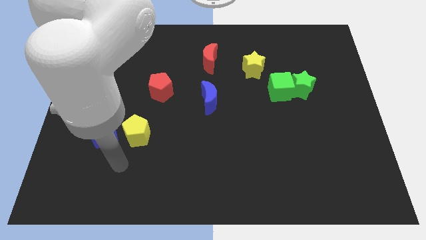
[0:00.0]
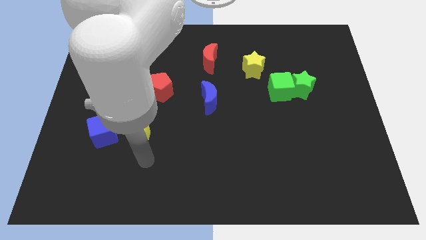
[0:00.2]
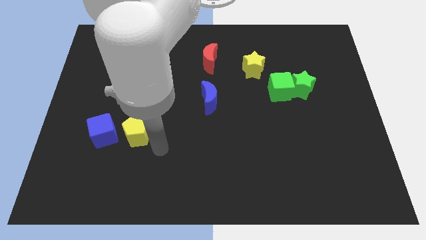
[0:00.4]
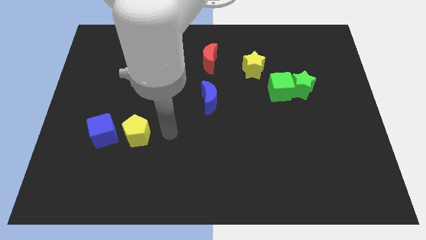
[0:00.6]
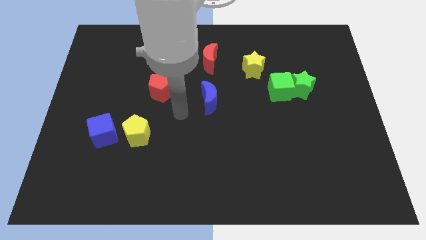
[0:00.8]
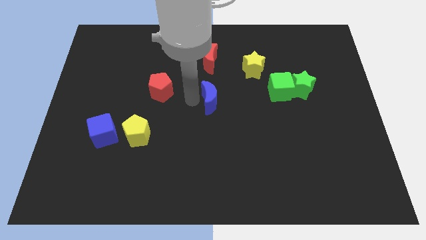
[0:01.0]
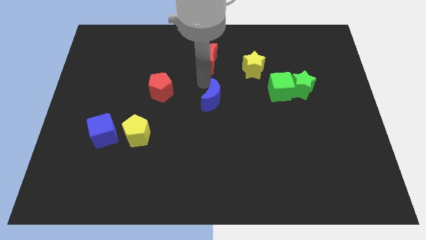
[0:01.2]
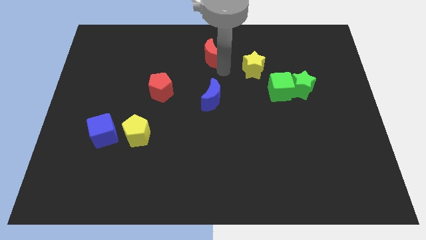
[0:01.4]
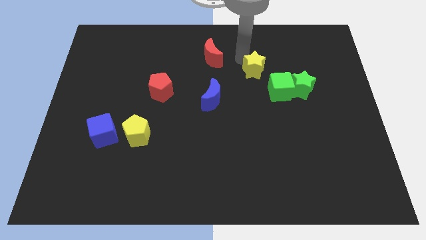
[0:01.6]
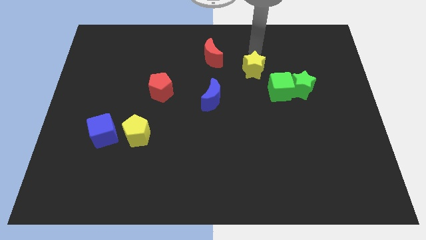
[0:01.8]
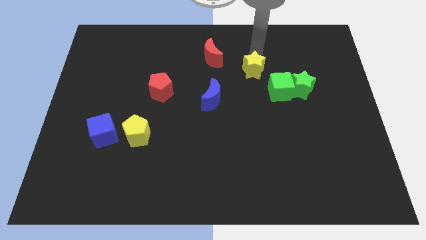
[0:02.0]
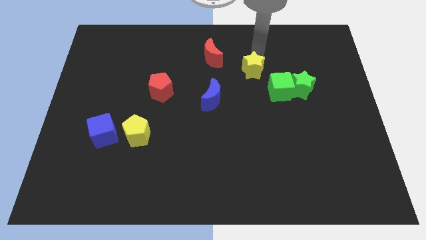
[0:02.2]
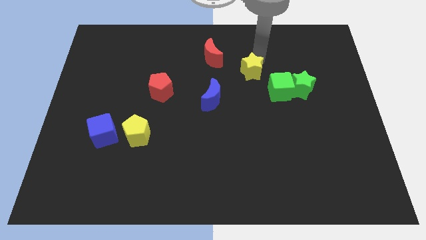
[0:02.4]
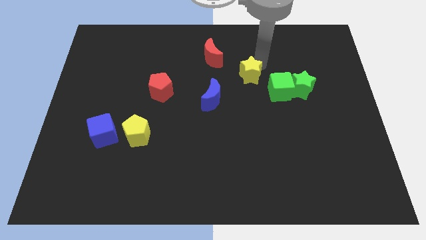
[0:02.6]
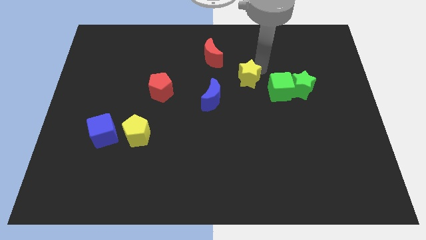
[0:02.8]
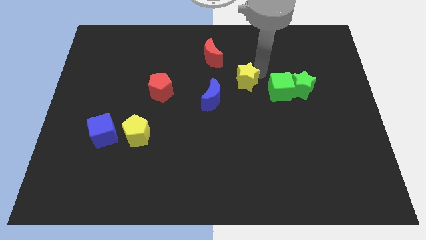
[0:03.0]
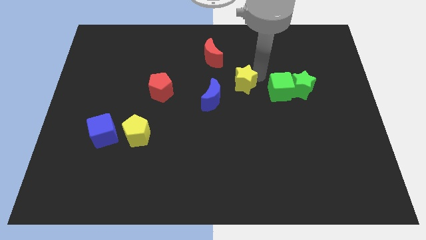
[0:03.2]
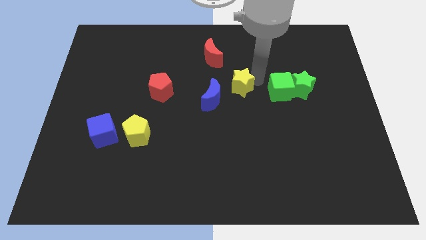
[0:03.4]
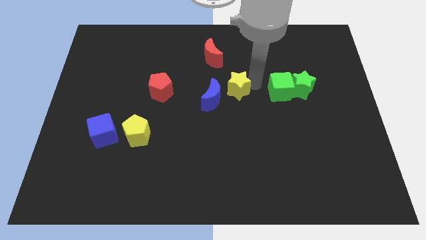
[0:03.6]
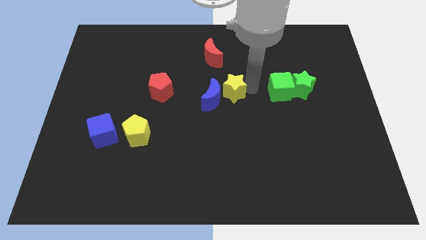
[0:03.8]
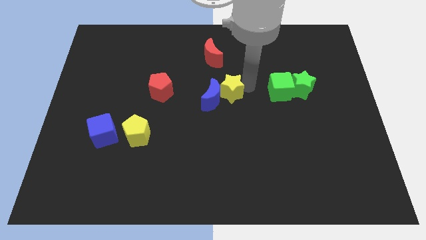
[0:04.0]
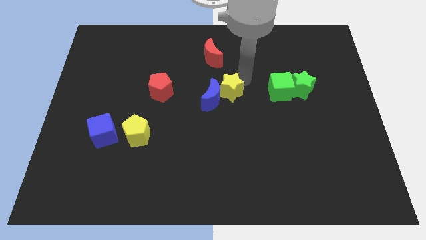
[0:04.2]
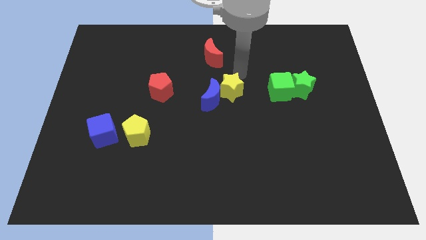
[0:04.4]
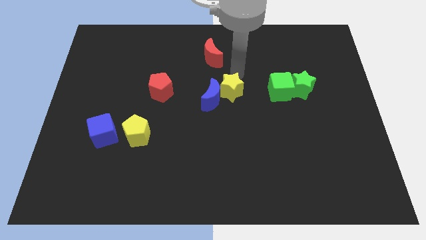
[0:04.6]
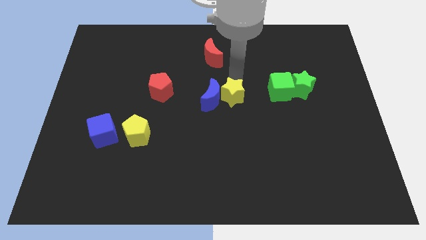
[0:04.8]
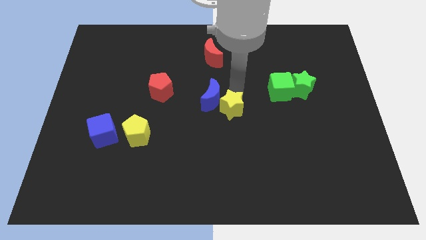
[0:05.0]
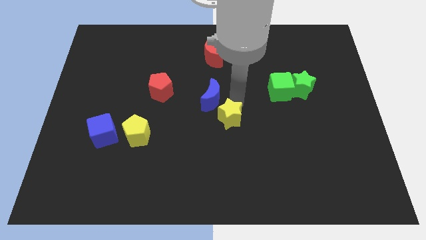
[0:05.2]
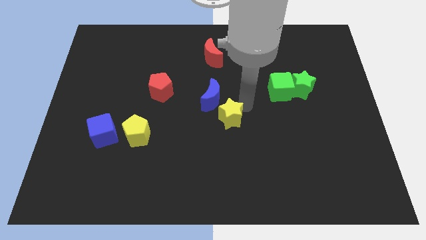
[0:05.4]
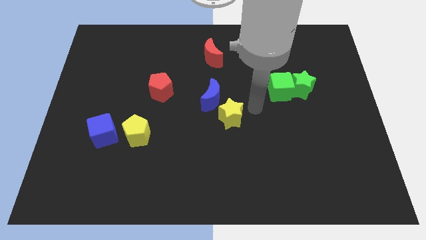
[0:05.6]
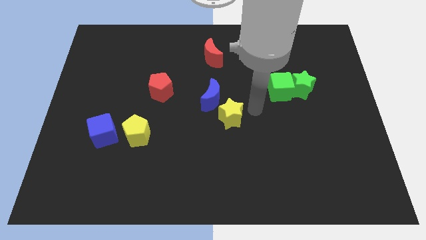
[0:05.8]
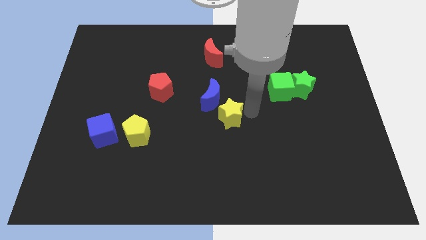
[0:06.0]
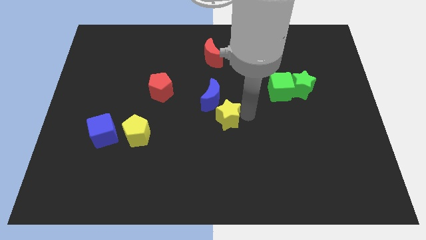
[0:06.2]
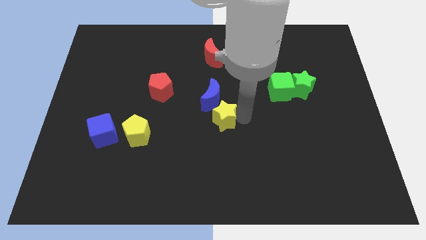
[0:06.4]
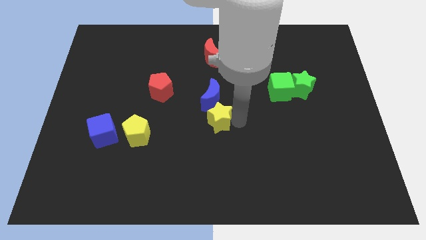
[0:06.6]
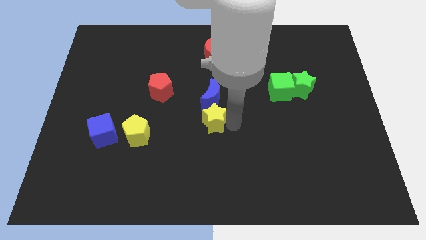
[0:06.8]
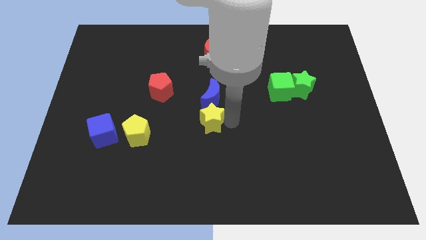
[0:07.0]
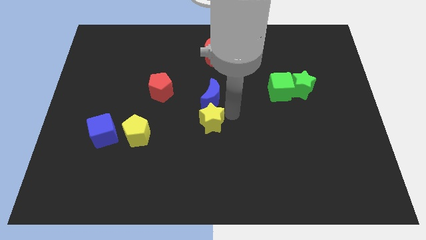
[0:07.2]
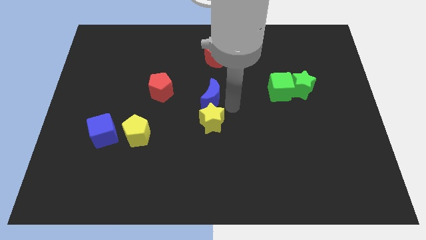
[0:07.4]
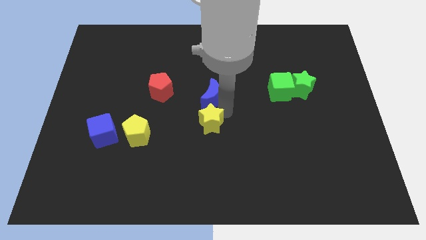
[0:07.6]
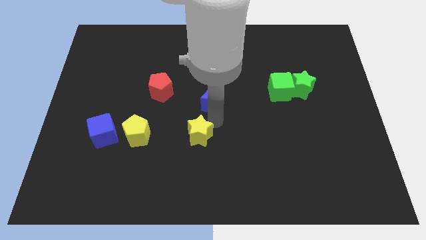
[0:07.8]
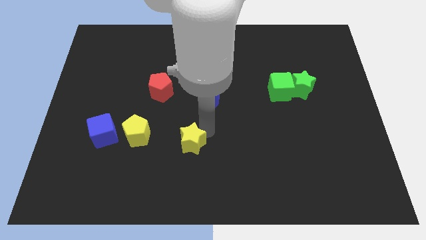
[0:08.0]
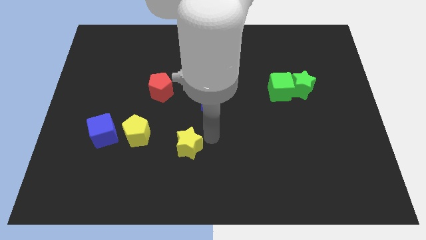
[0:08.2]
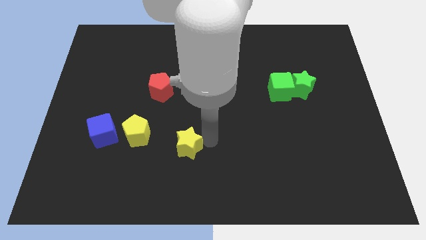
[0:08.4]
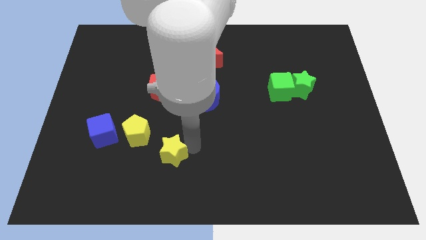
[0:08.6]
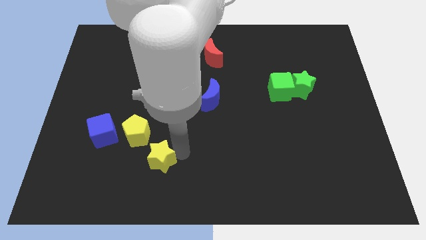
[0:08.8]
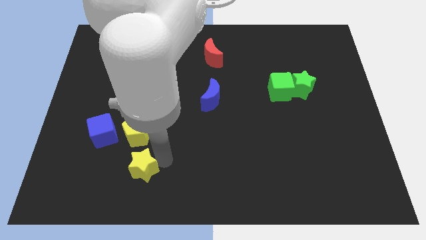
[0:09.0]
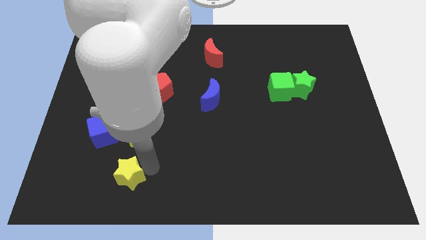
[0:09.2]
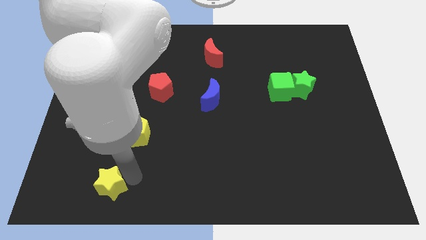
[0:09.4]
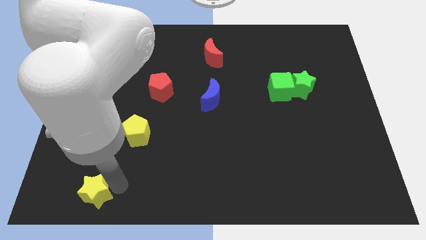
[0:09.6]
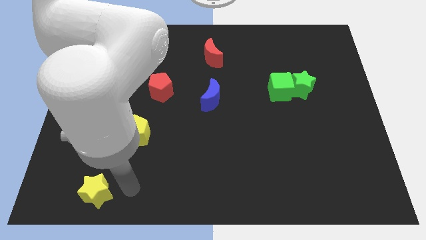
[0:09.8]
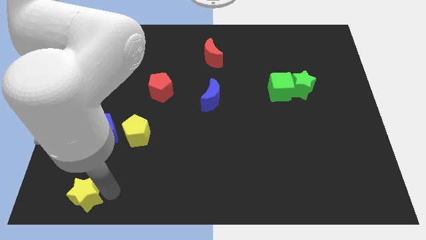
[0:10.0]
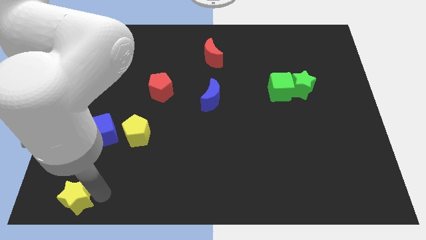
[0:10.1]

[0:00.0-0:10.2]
slide the yellow star to the lower left corner

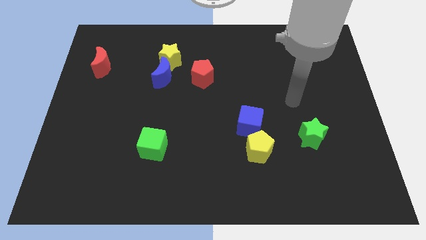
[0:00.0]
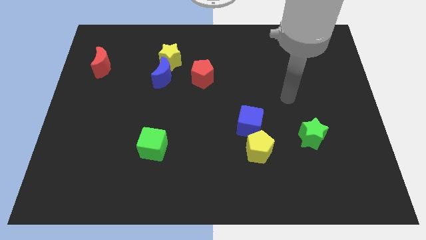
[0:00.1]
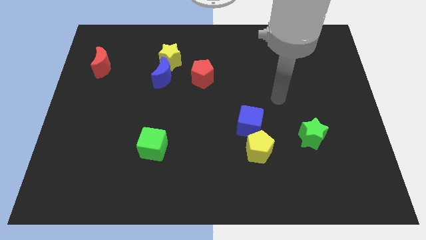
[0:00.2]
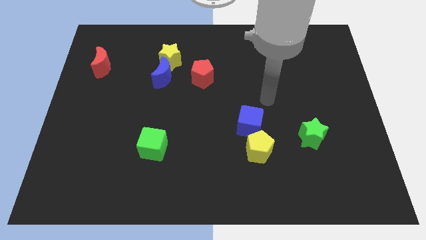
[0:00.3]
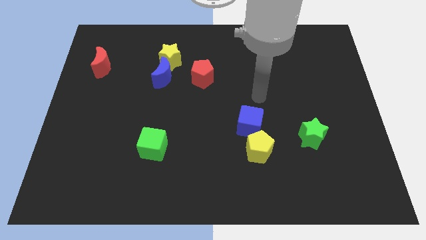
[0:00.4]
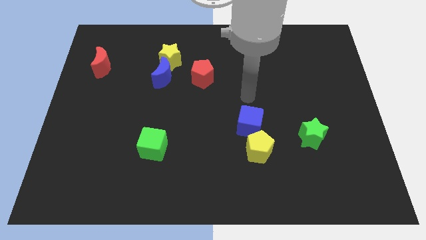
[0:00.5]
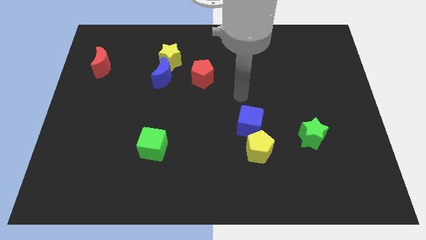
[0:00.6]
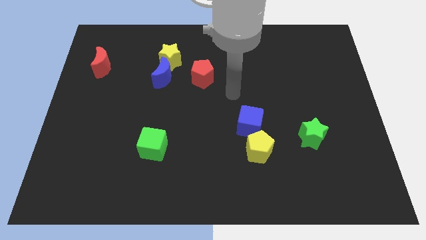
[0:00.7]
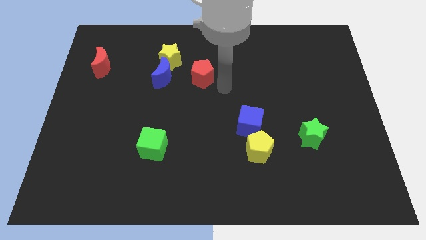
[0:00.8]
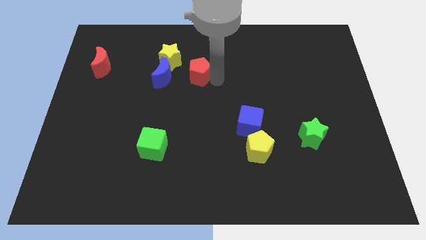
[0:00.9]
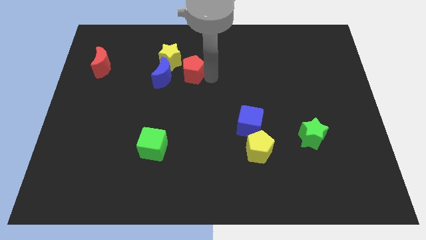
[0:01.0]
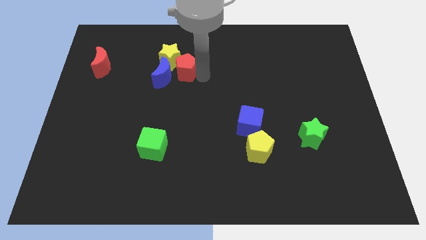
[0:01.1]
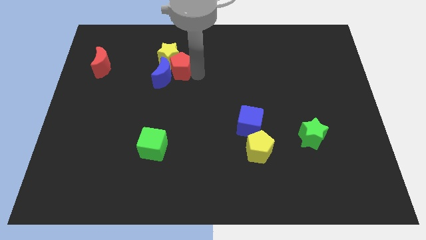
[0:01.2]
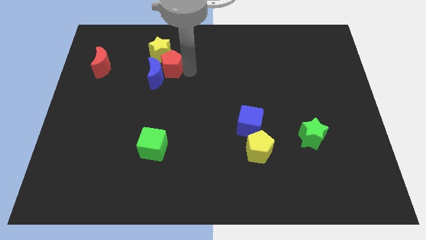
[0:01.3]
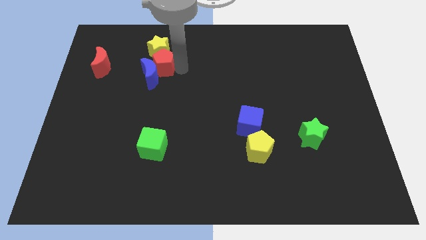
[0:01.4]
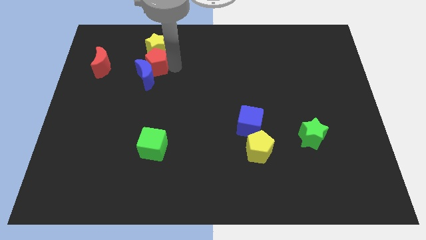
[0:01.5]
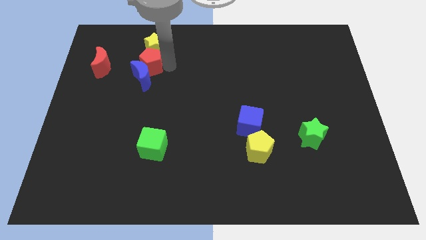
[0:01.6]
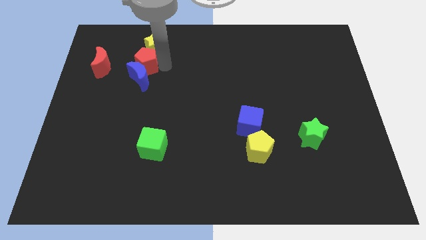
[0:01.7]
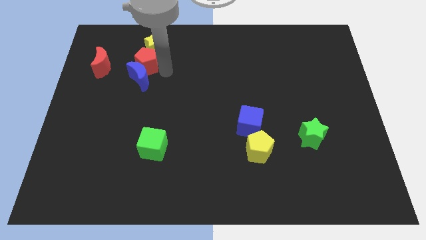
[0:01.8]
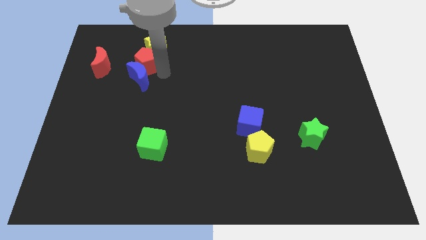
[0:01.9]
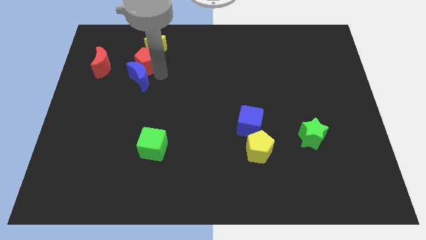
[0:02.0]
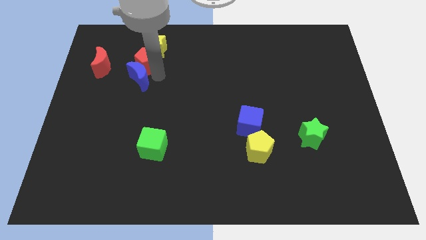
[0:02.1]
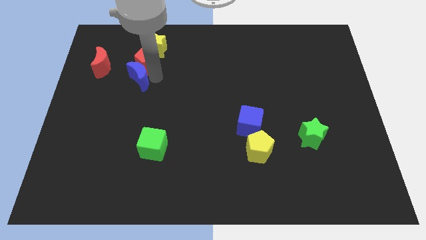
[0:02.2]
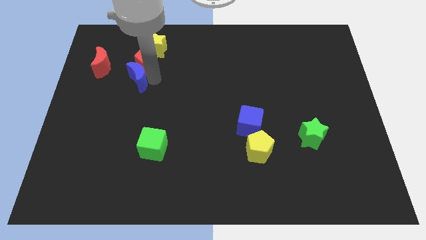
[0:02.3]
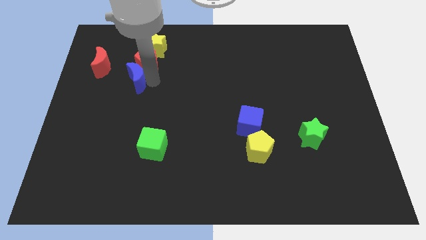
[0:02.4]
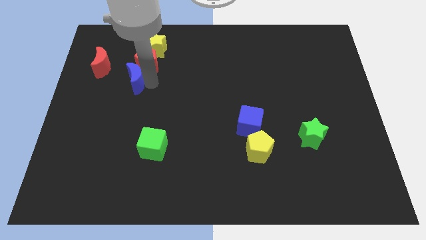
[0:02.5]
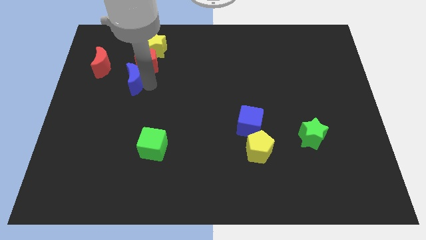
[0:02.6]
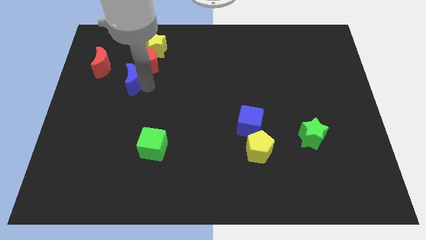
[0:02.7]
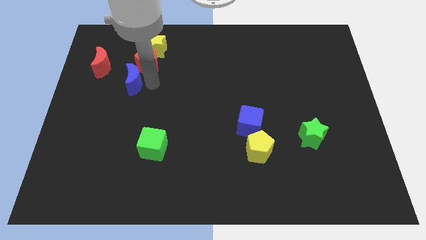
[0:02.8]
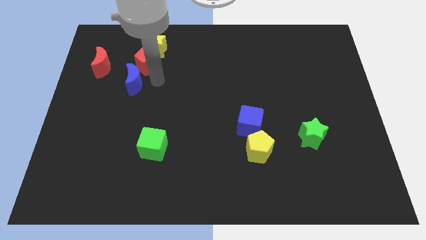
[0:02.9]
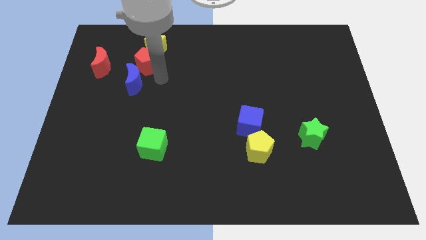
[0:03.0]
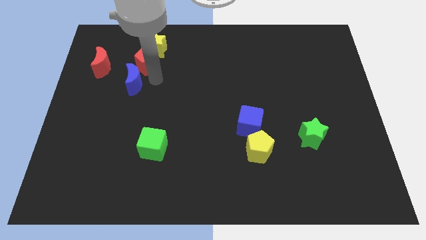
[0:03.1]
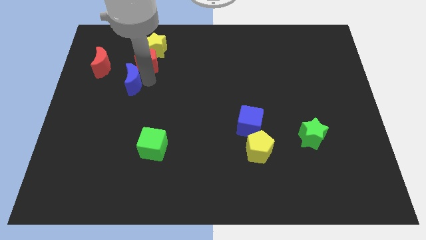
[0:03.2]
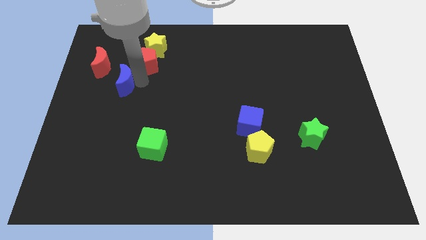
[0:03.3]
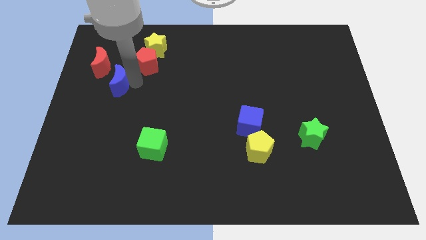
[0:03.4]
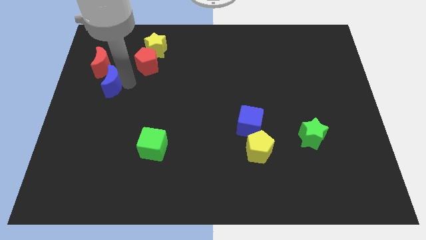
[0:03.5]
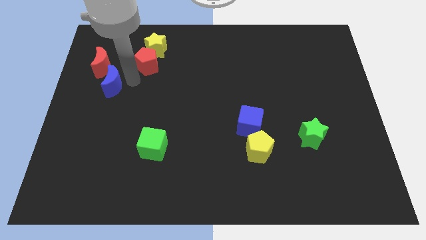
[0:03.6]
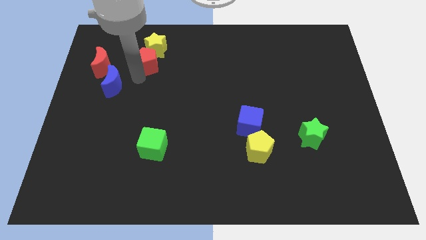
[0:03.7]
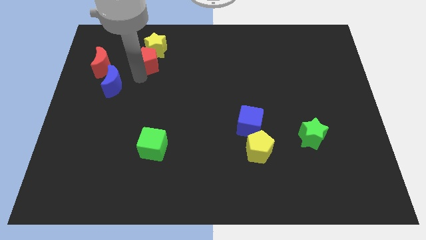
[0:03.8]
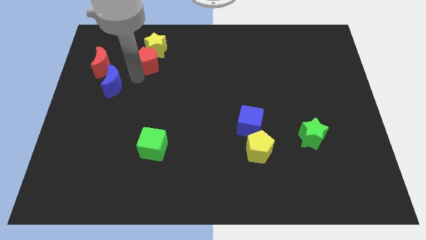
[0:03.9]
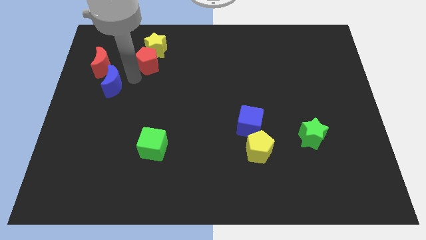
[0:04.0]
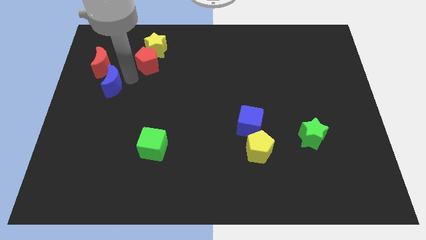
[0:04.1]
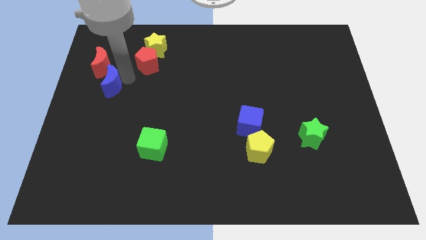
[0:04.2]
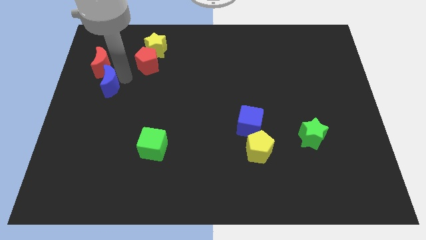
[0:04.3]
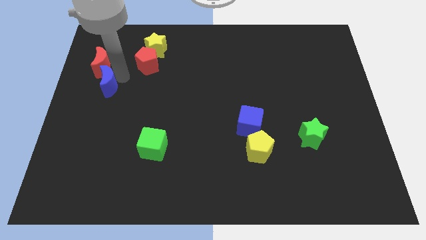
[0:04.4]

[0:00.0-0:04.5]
put the blue moon to the left side of the board
